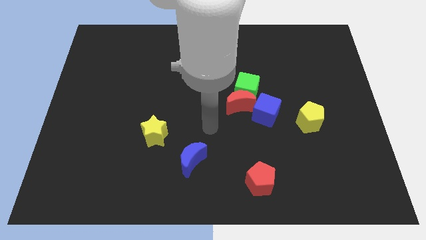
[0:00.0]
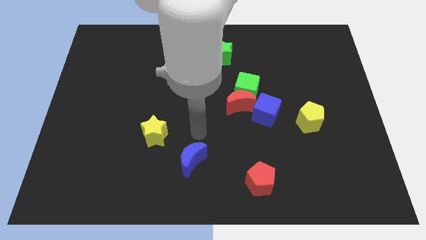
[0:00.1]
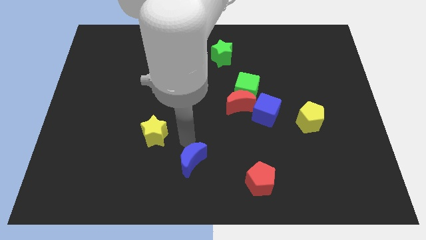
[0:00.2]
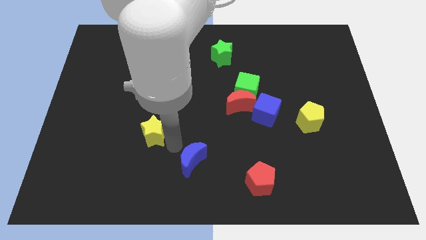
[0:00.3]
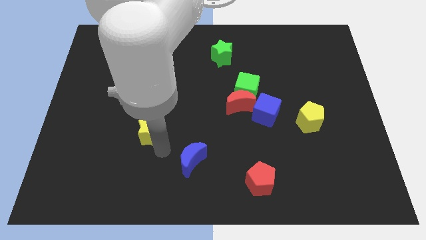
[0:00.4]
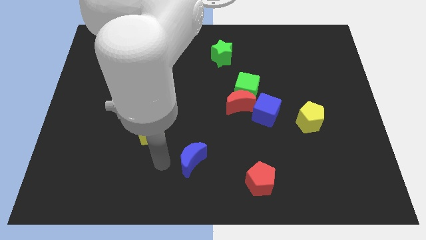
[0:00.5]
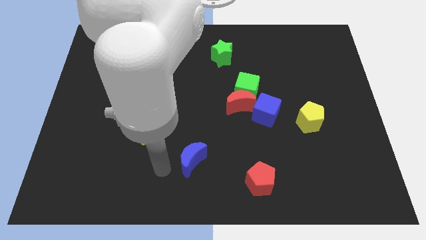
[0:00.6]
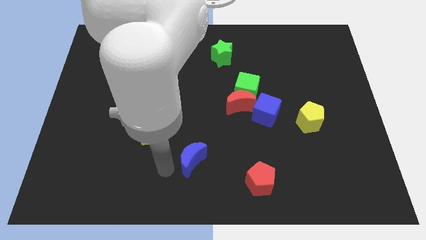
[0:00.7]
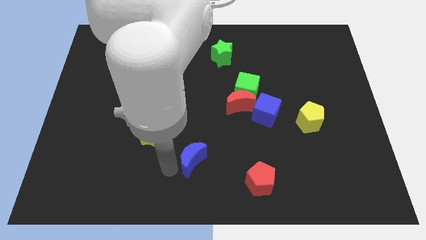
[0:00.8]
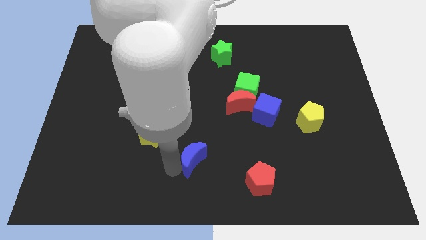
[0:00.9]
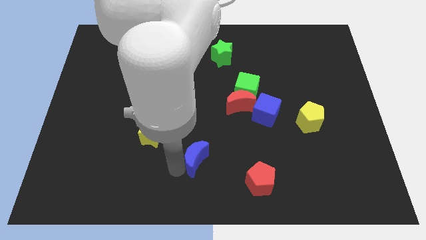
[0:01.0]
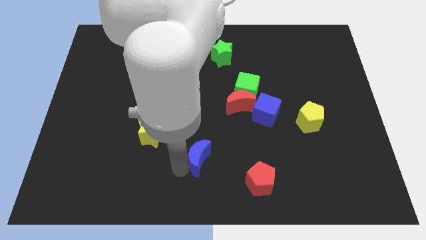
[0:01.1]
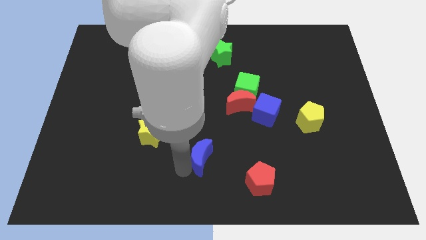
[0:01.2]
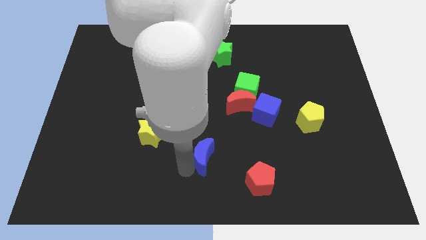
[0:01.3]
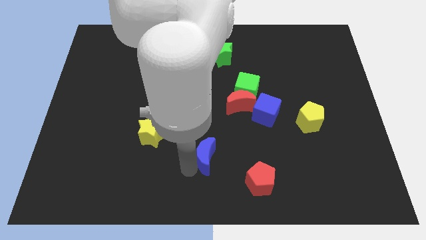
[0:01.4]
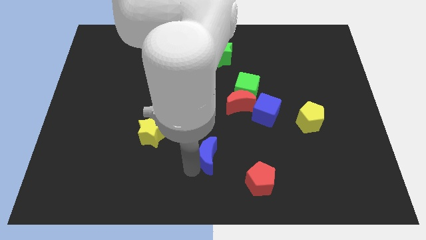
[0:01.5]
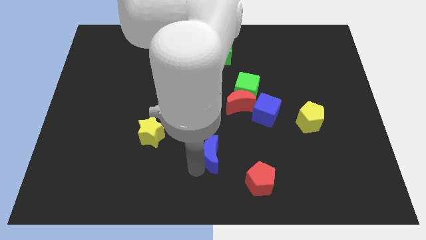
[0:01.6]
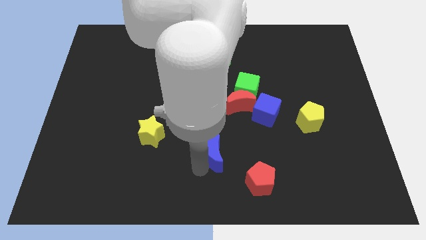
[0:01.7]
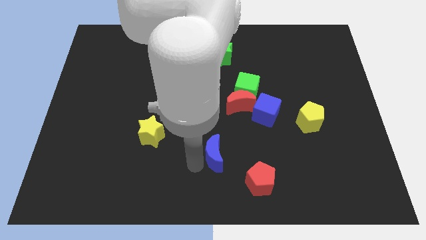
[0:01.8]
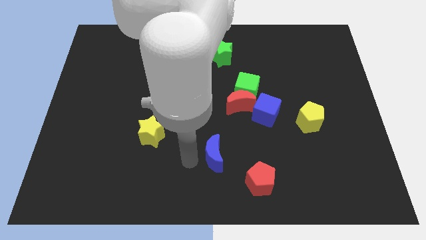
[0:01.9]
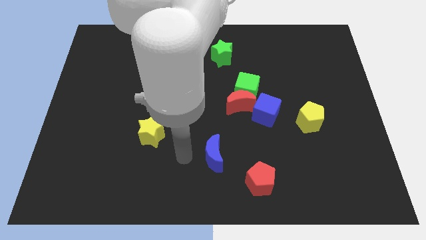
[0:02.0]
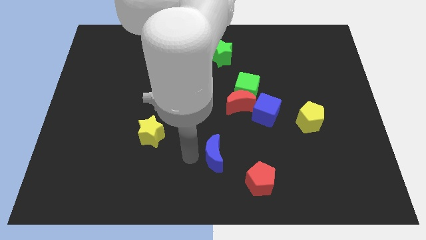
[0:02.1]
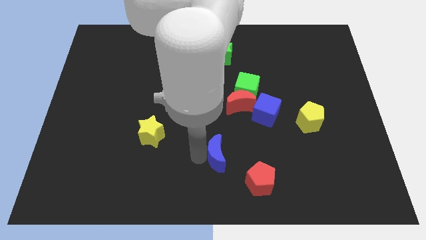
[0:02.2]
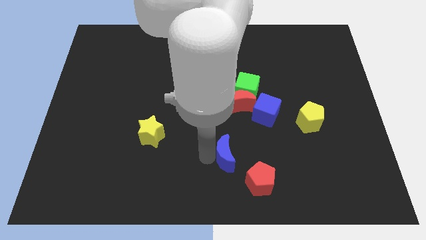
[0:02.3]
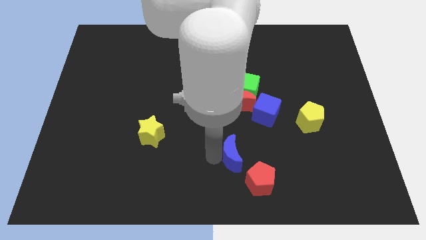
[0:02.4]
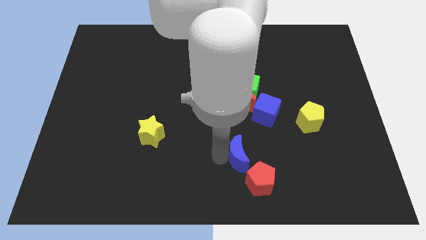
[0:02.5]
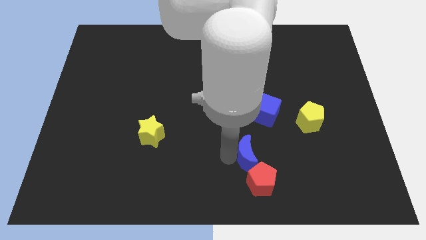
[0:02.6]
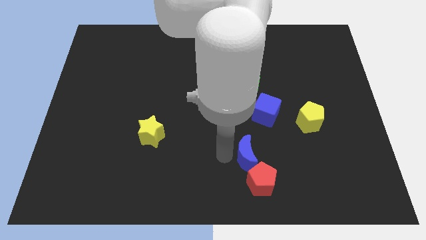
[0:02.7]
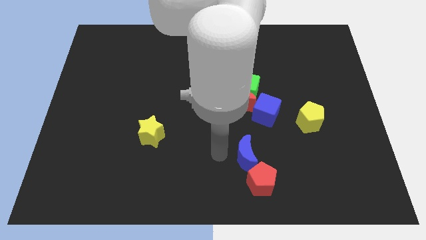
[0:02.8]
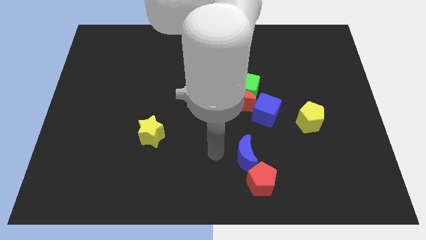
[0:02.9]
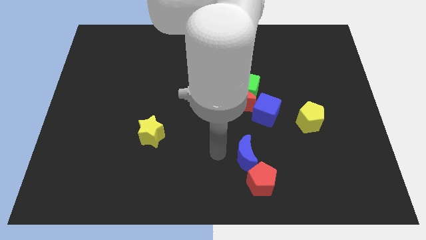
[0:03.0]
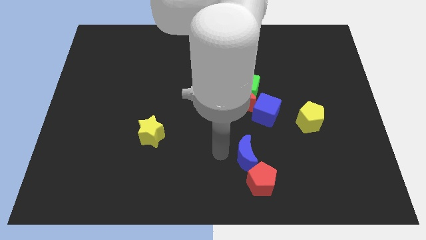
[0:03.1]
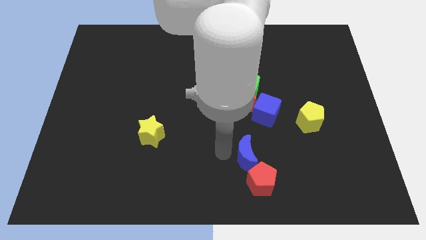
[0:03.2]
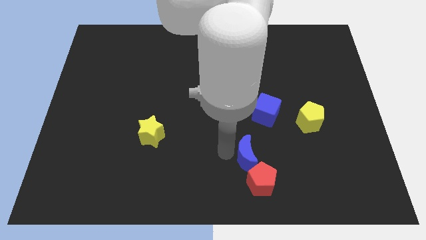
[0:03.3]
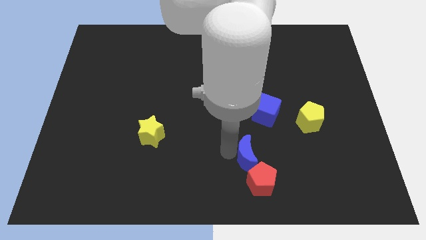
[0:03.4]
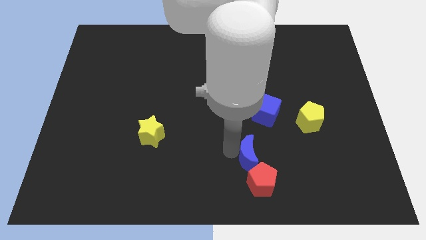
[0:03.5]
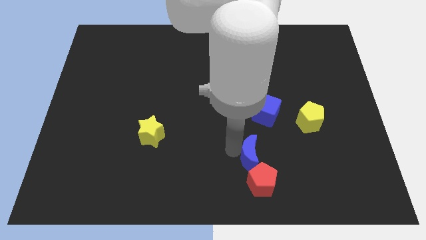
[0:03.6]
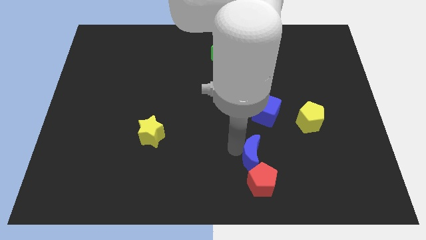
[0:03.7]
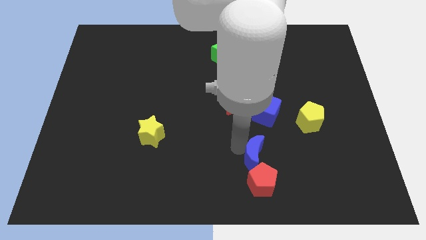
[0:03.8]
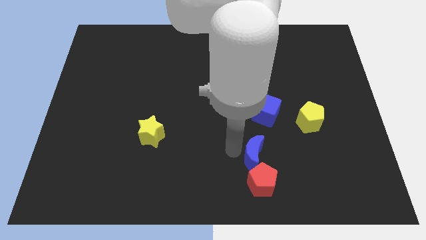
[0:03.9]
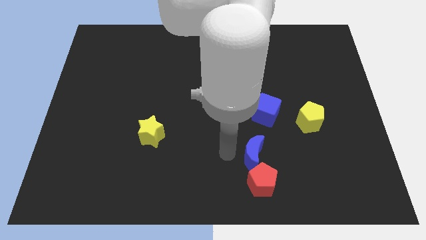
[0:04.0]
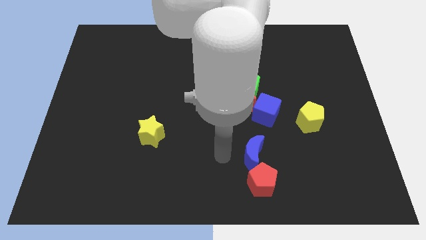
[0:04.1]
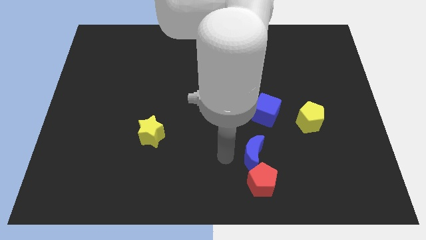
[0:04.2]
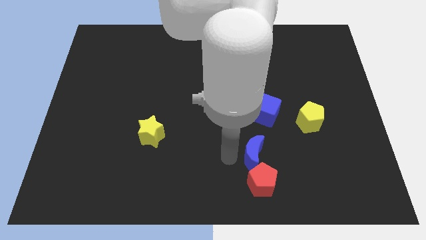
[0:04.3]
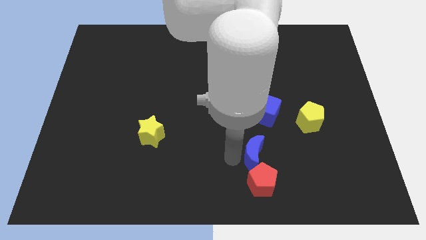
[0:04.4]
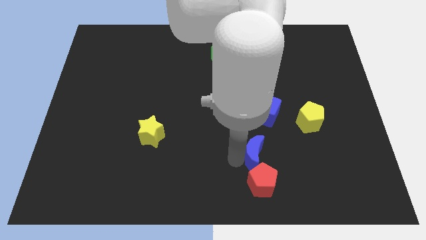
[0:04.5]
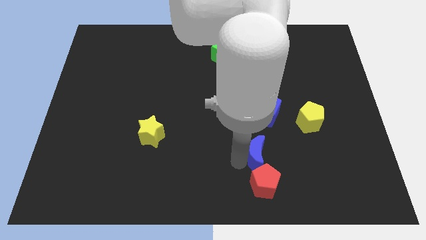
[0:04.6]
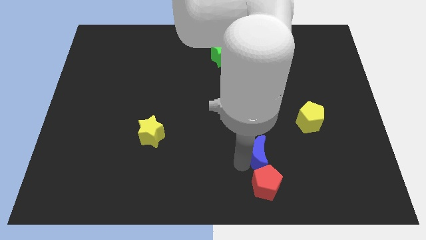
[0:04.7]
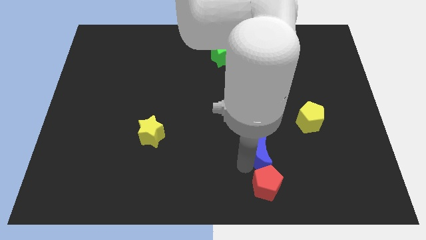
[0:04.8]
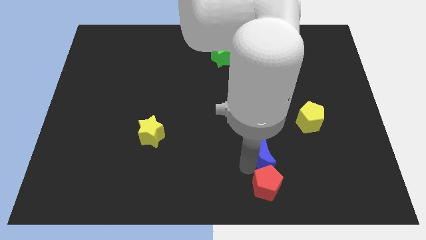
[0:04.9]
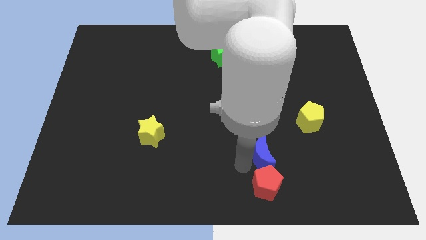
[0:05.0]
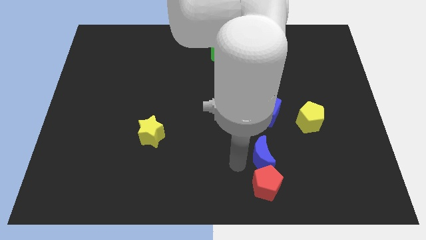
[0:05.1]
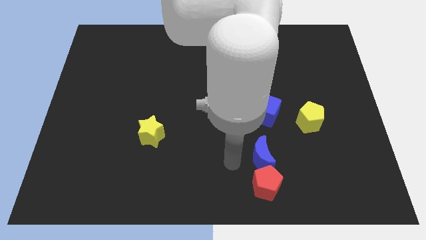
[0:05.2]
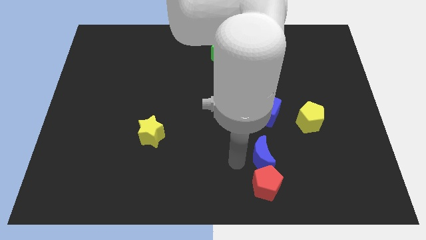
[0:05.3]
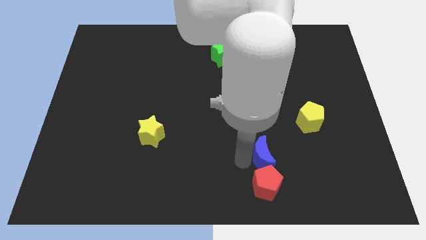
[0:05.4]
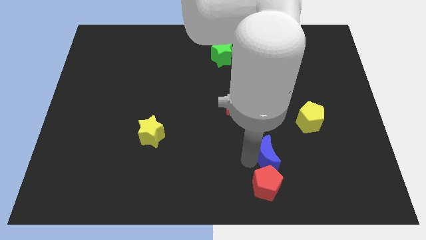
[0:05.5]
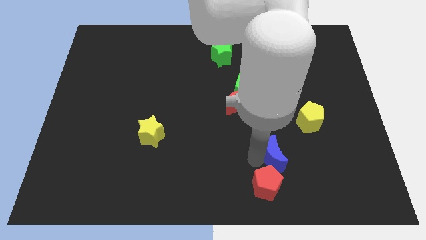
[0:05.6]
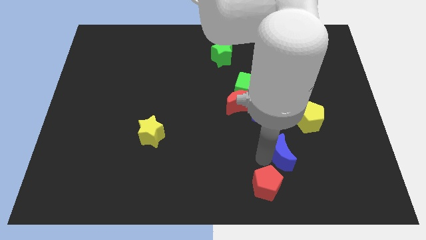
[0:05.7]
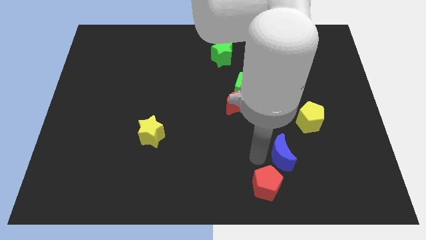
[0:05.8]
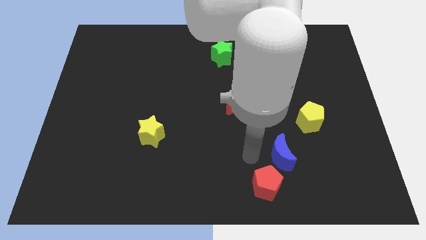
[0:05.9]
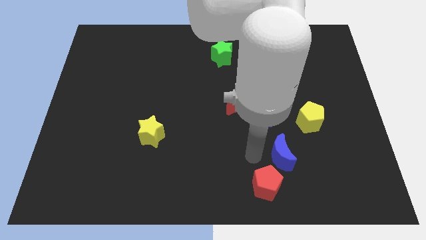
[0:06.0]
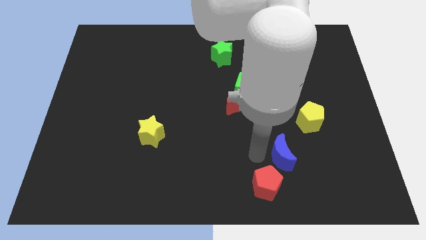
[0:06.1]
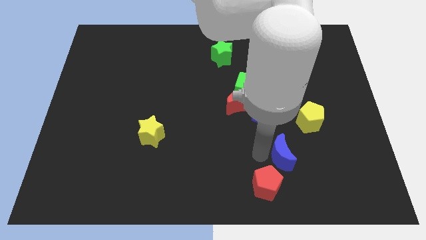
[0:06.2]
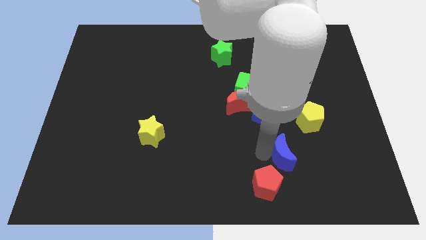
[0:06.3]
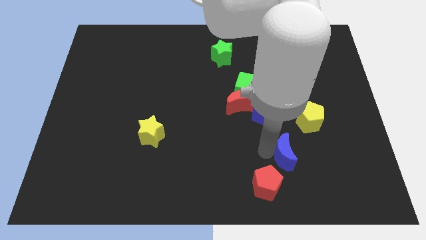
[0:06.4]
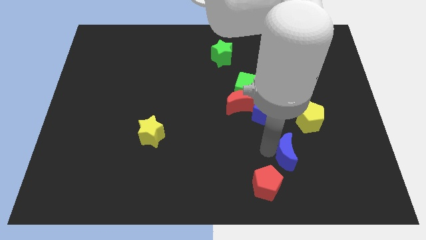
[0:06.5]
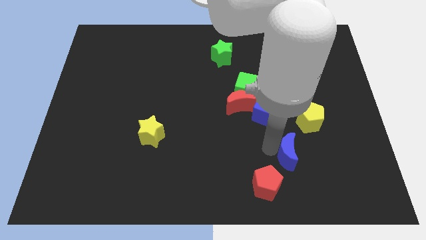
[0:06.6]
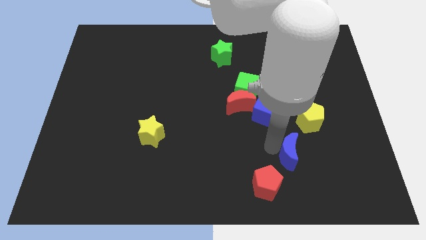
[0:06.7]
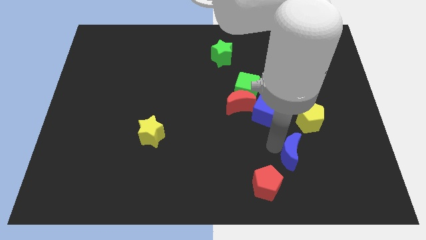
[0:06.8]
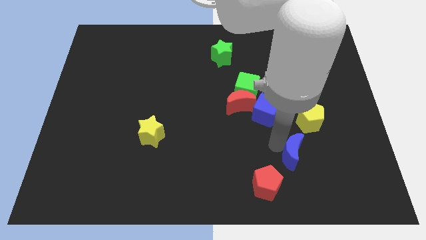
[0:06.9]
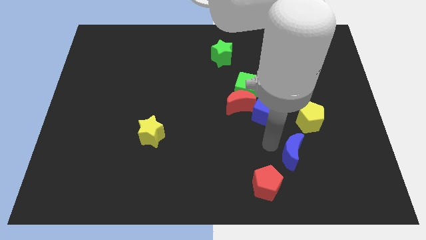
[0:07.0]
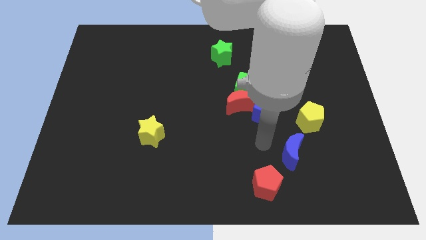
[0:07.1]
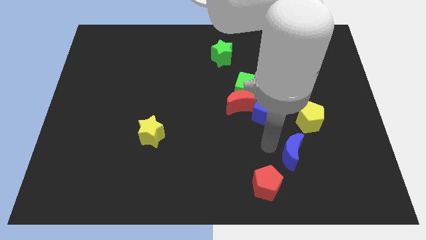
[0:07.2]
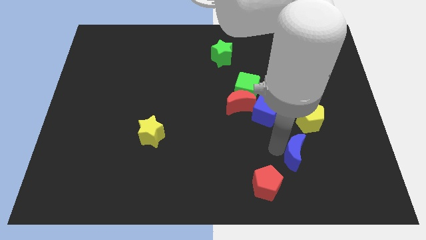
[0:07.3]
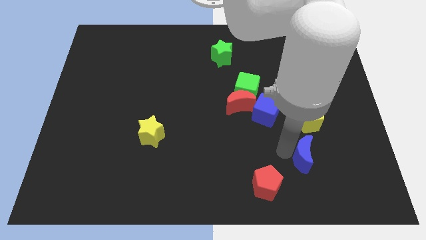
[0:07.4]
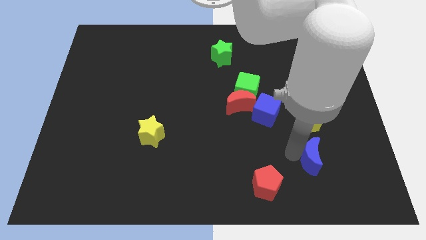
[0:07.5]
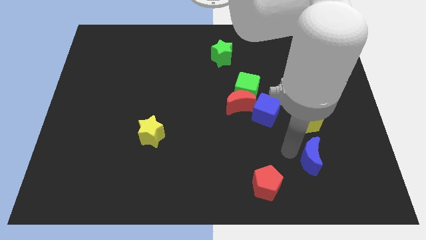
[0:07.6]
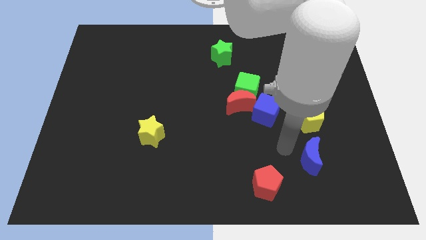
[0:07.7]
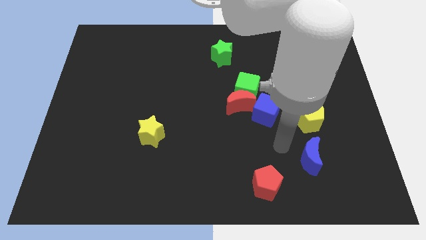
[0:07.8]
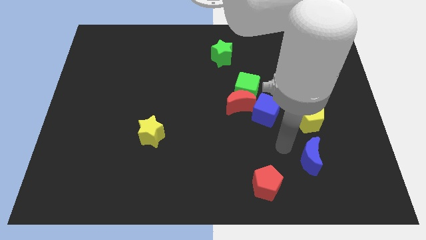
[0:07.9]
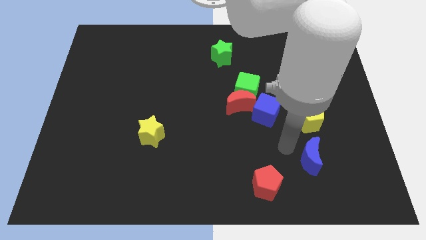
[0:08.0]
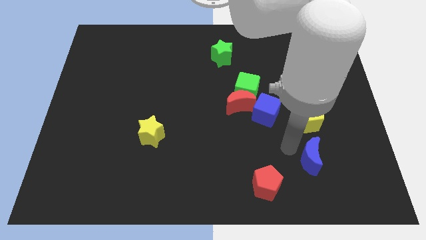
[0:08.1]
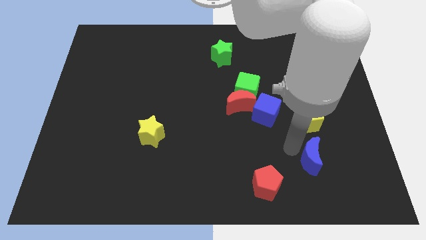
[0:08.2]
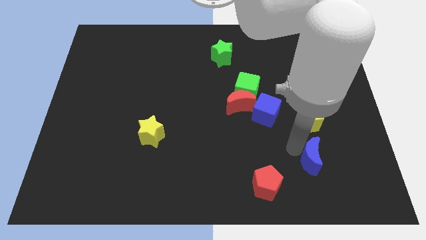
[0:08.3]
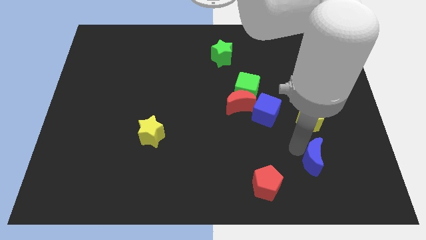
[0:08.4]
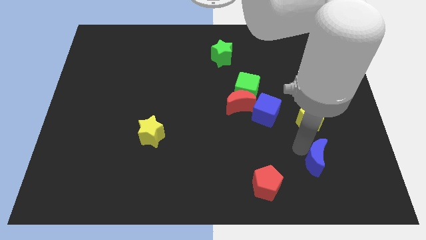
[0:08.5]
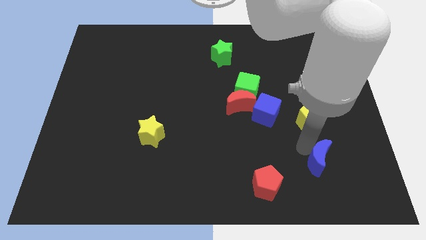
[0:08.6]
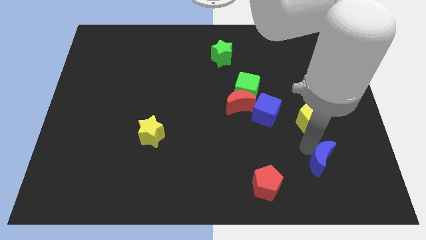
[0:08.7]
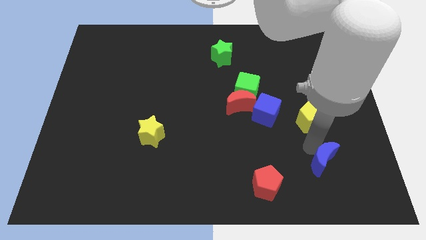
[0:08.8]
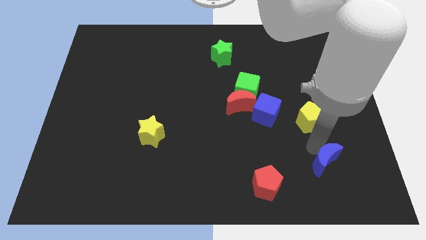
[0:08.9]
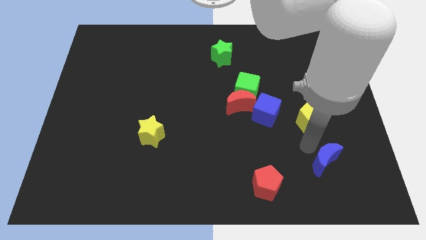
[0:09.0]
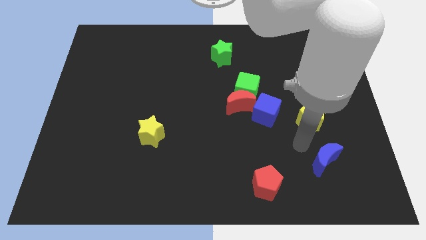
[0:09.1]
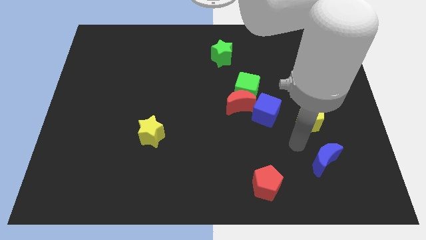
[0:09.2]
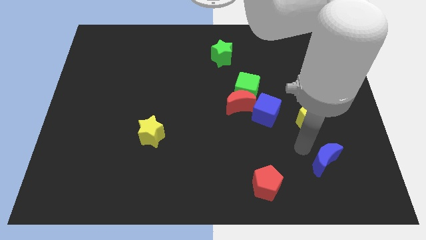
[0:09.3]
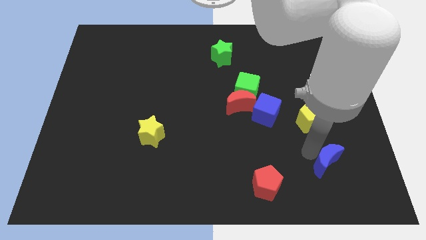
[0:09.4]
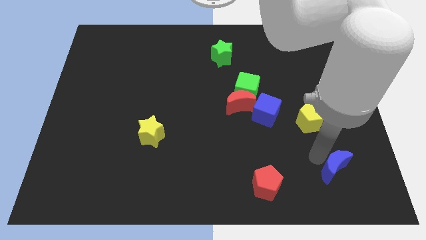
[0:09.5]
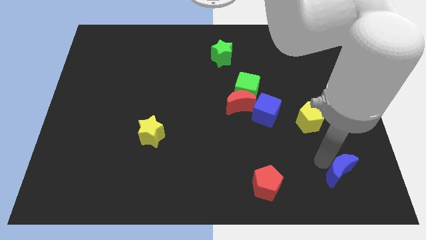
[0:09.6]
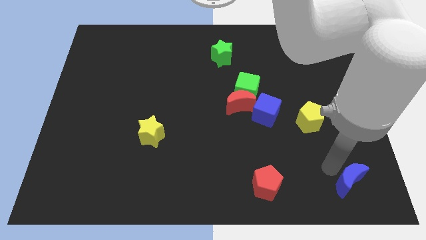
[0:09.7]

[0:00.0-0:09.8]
put the blue moon to the lower right corner
